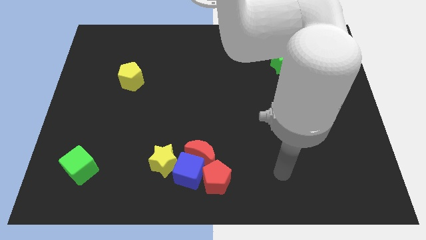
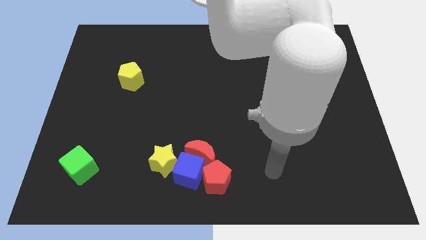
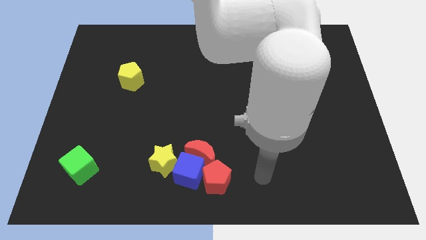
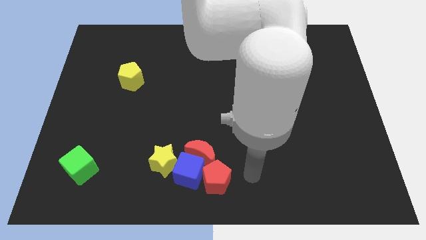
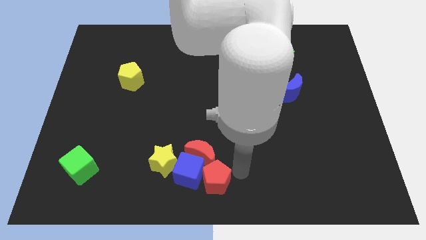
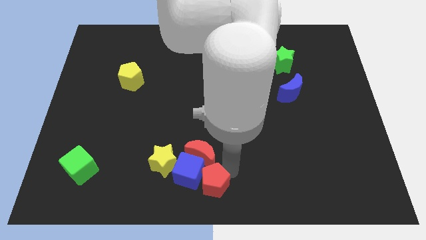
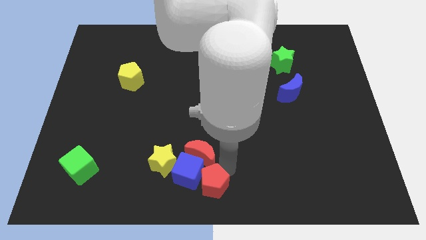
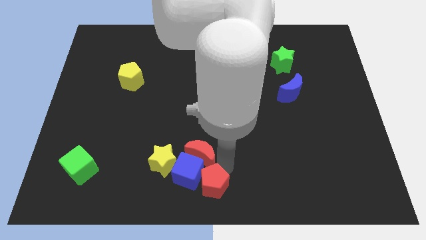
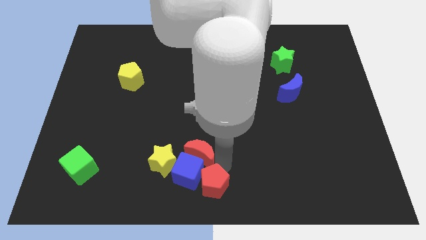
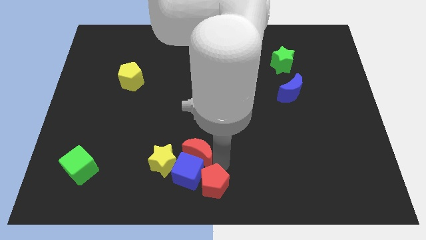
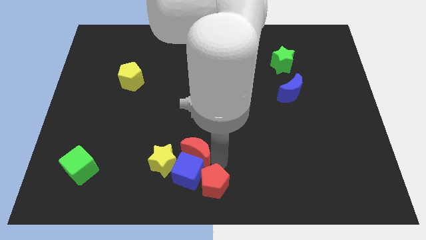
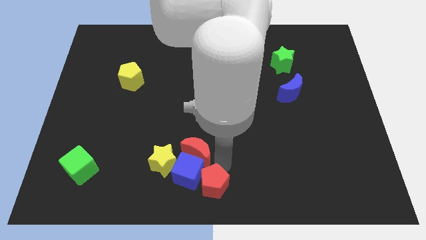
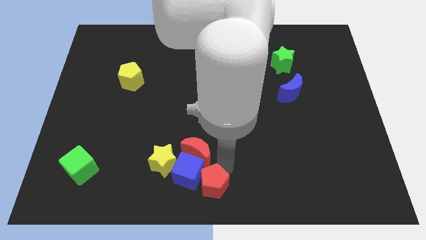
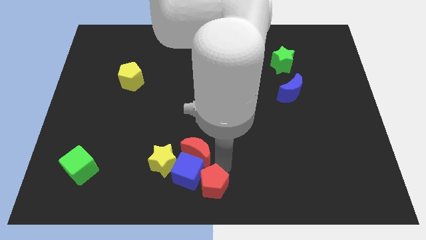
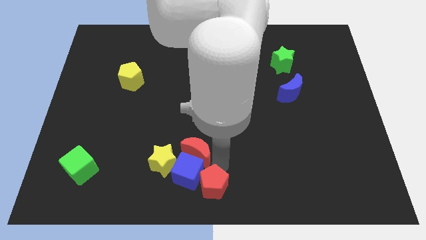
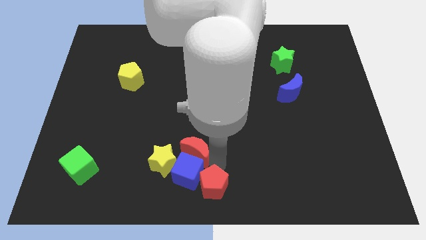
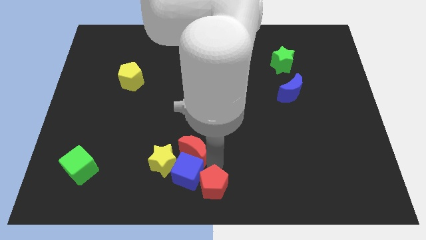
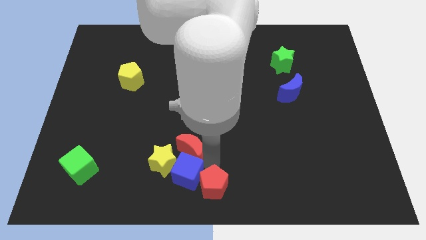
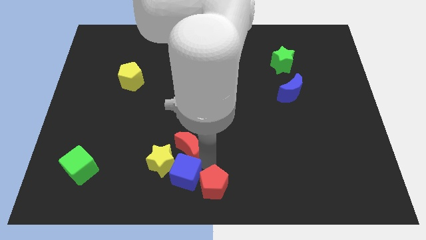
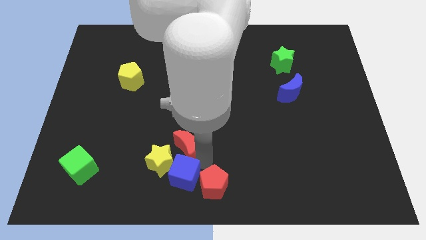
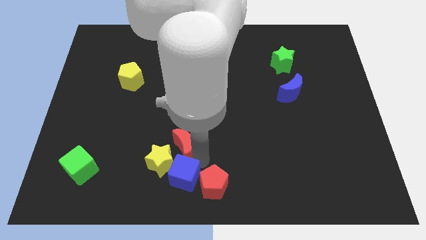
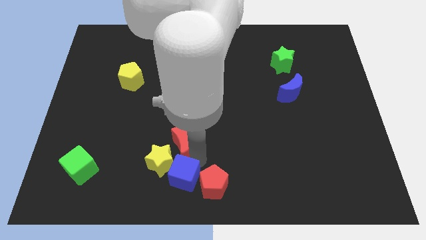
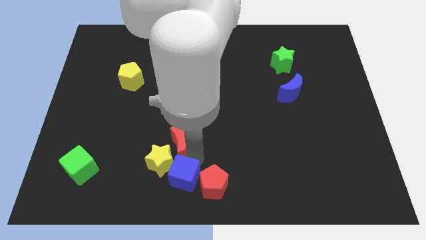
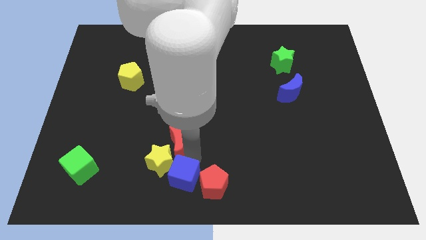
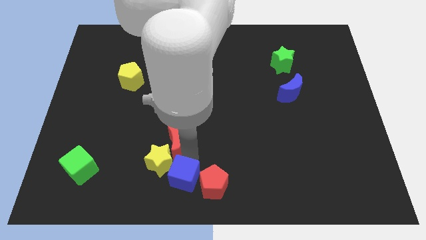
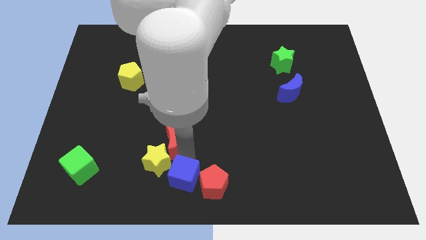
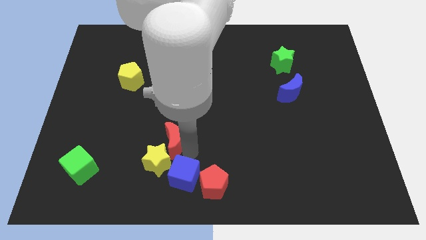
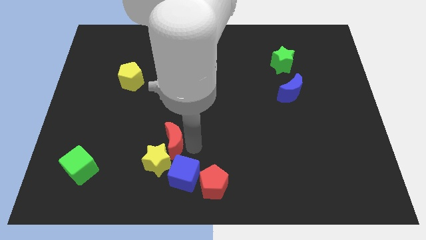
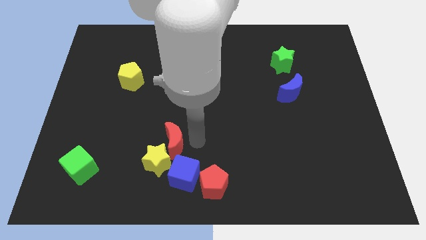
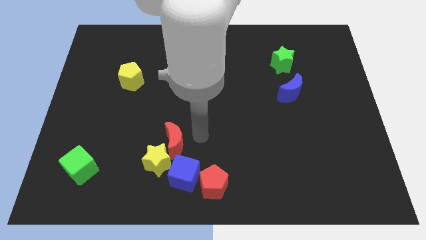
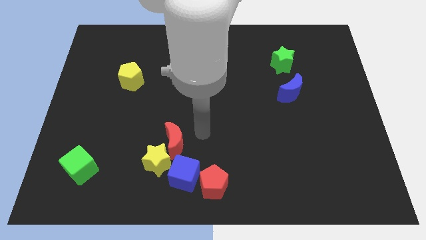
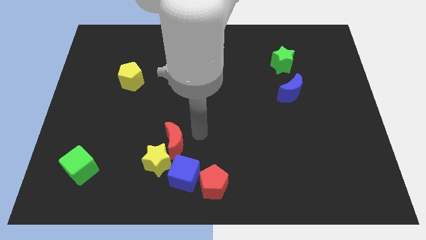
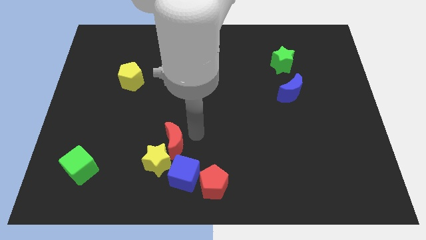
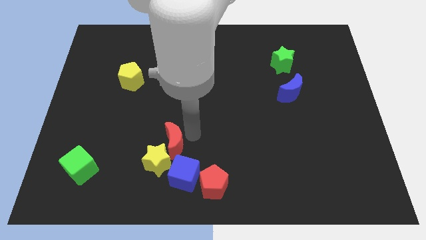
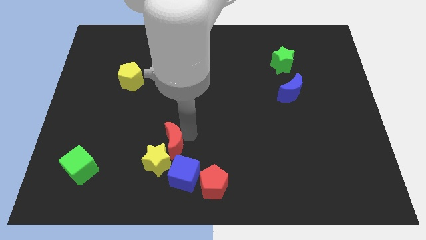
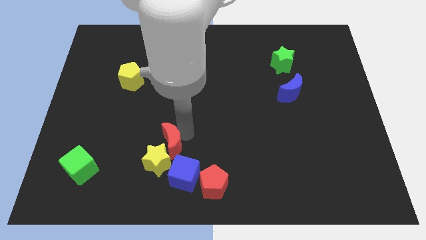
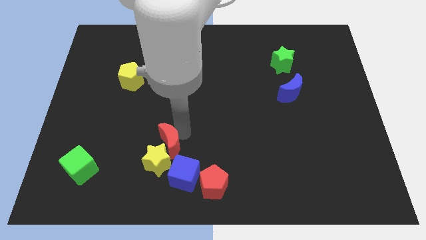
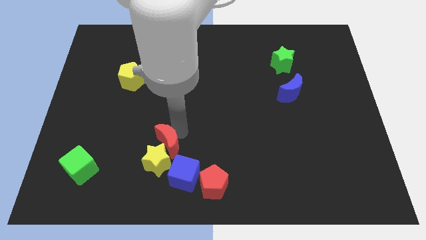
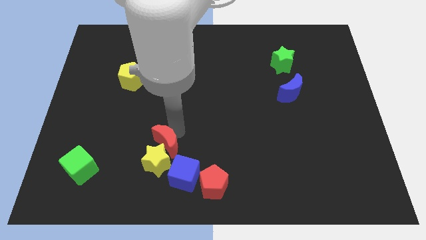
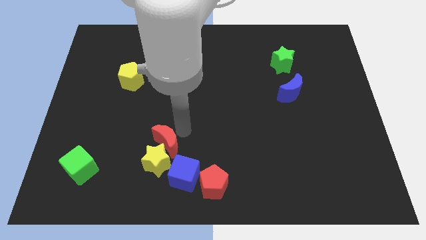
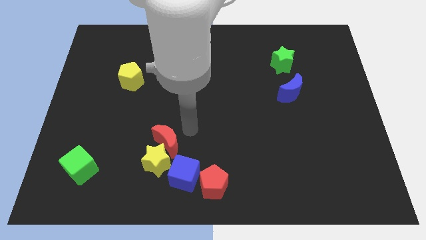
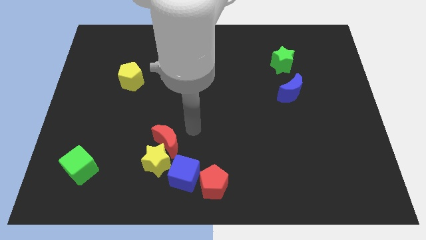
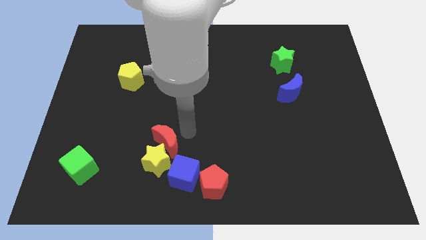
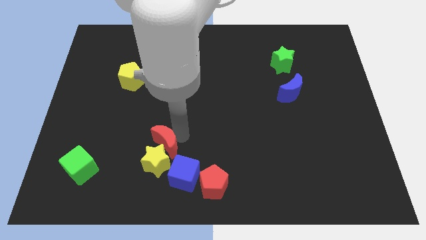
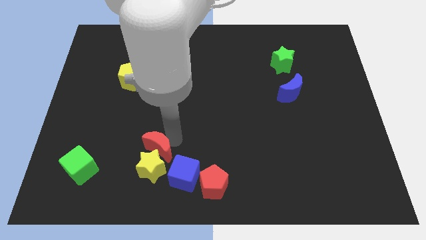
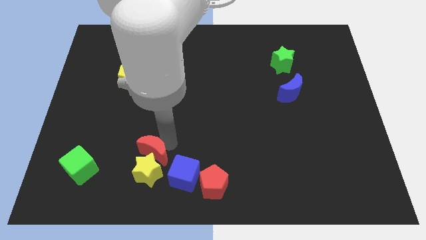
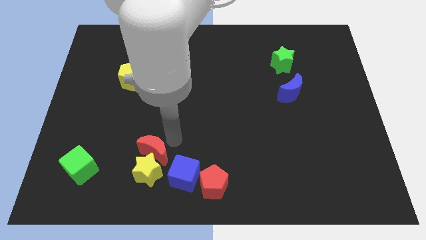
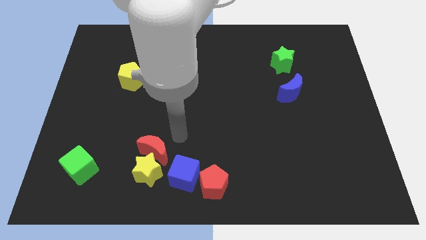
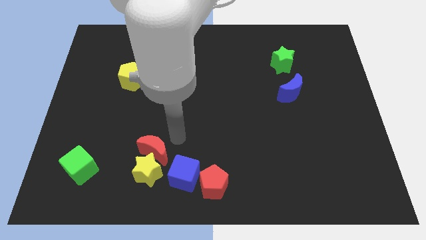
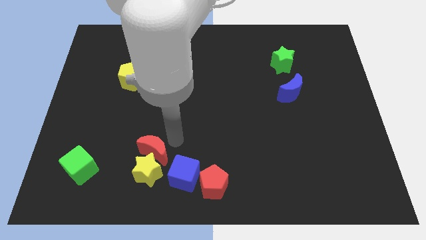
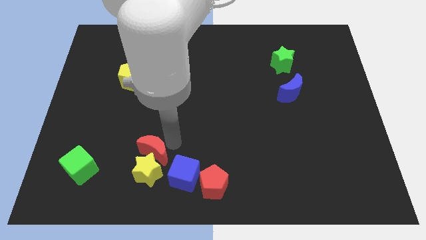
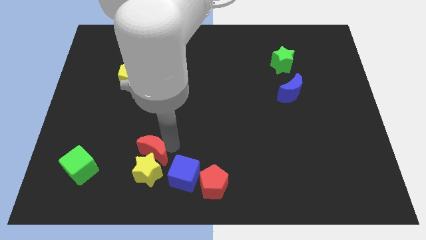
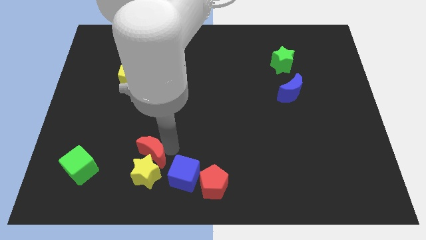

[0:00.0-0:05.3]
slide the red moon just right of the green cube

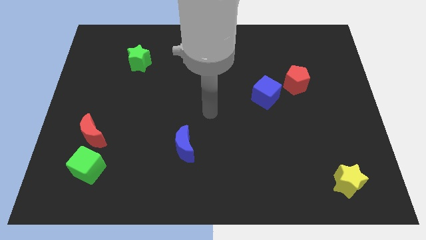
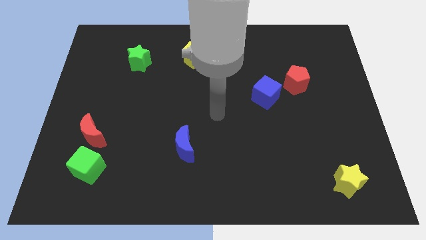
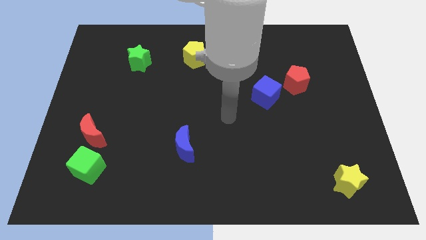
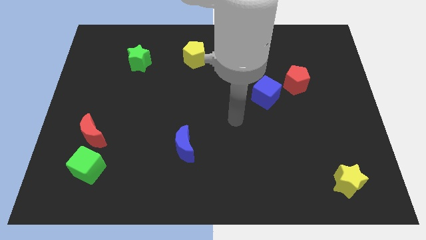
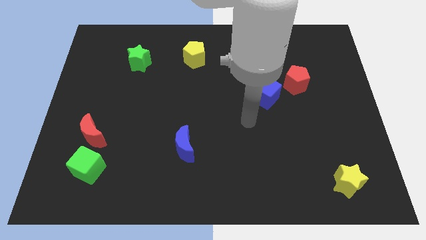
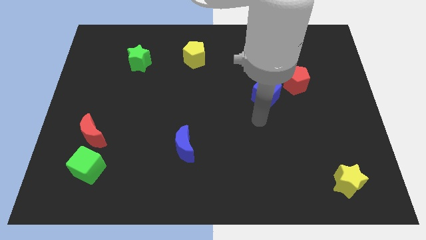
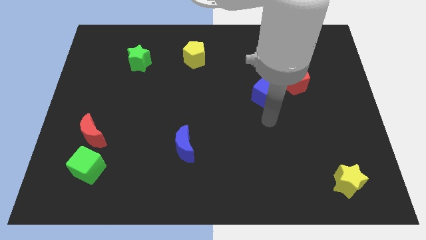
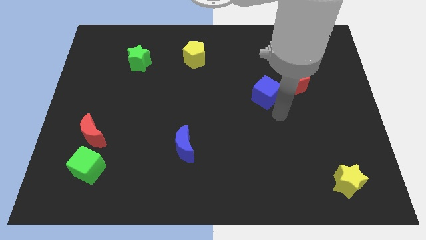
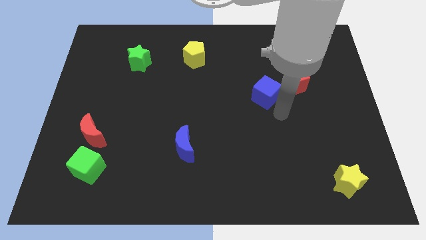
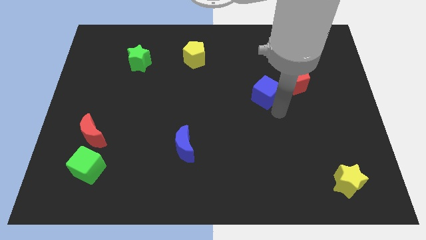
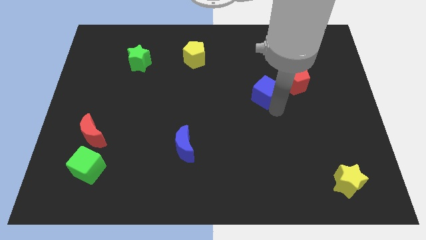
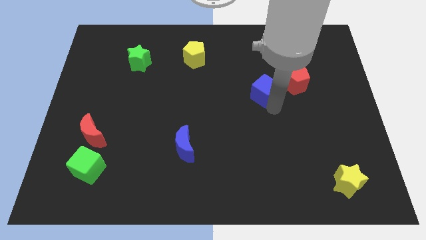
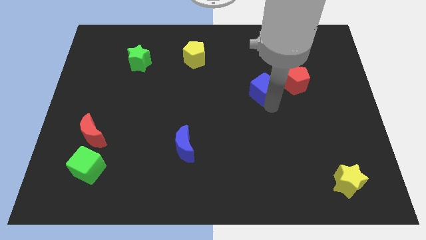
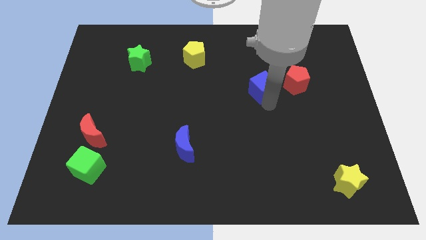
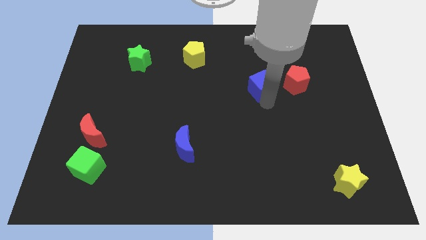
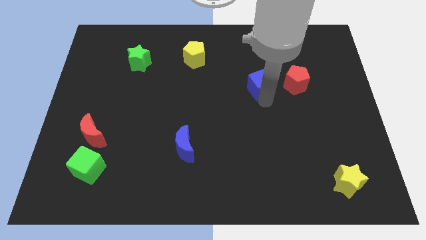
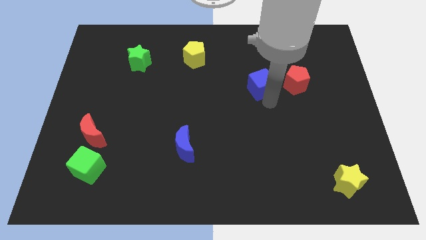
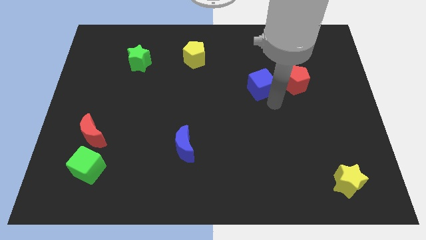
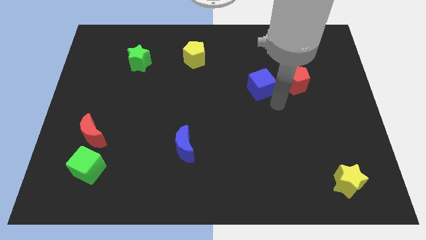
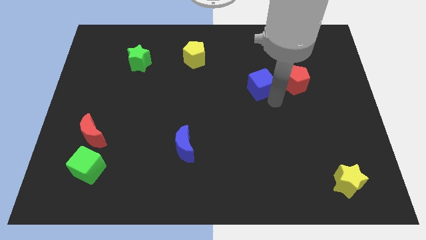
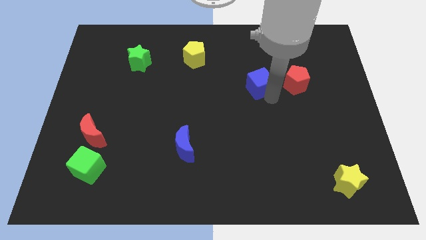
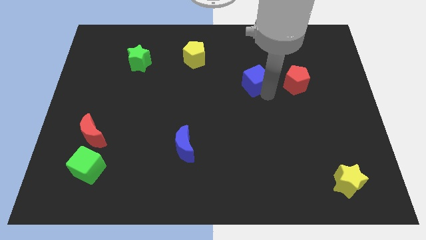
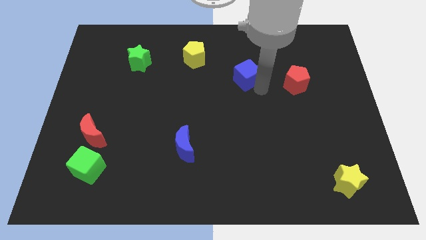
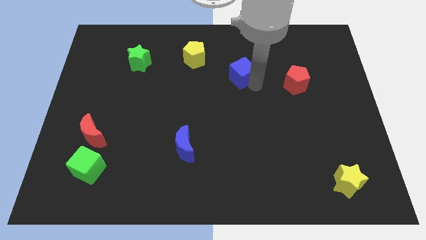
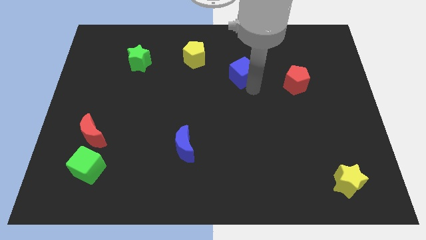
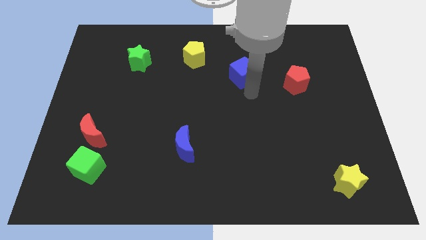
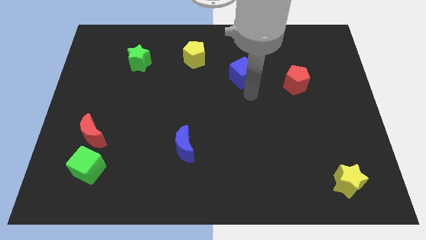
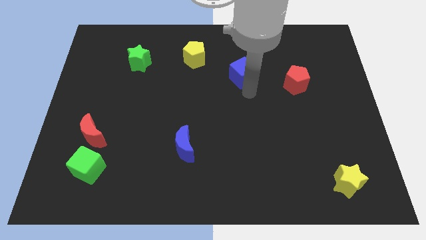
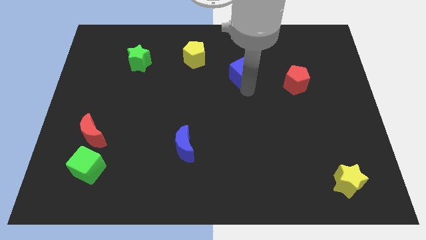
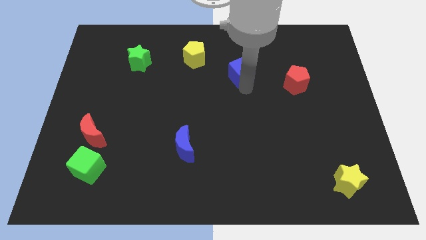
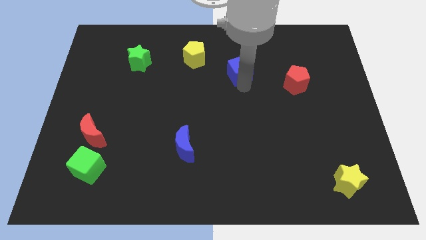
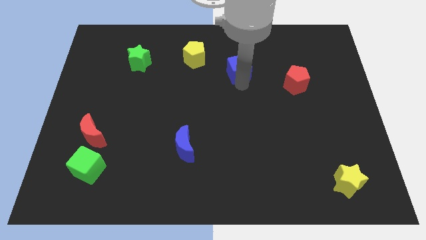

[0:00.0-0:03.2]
push the blue cube just right of the yellow pentagon
